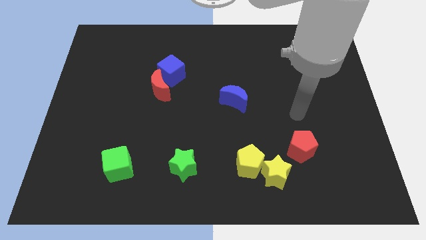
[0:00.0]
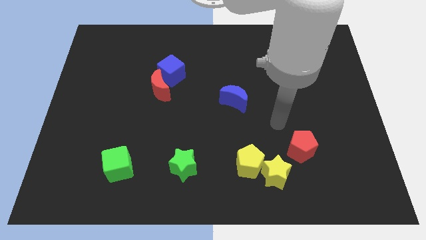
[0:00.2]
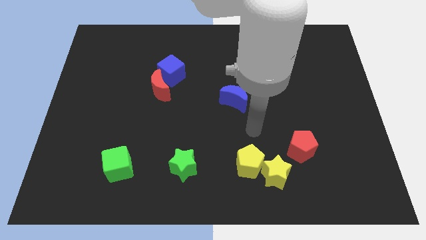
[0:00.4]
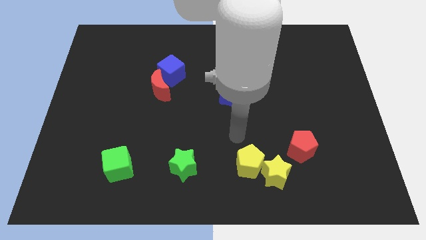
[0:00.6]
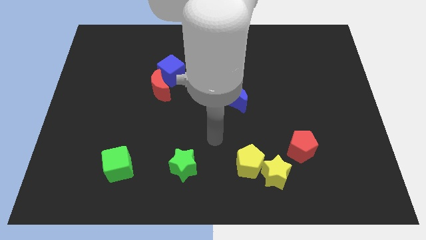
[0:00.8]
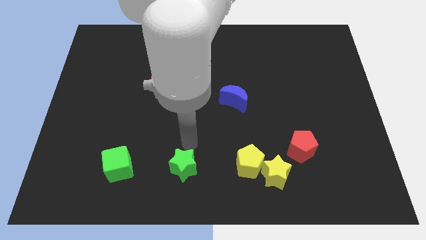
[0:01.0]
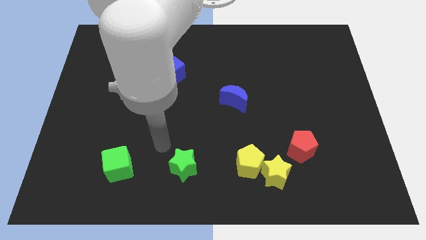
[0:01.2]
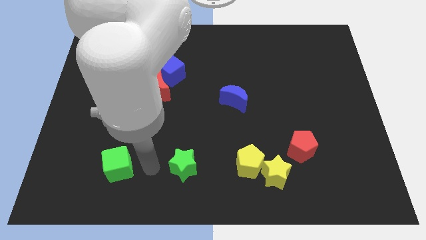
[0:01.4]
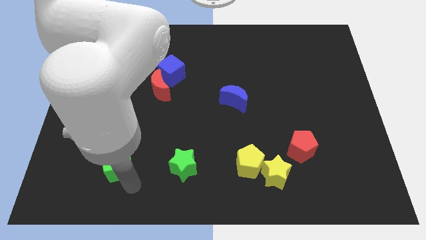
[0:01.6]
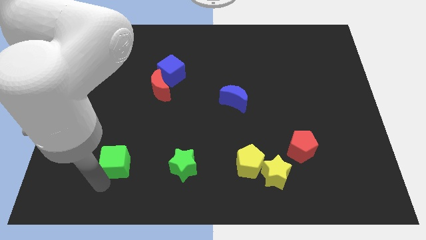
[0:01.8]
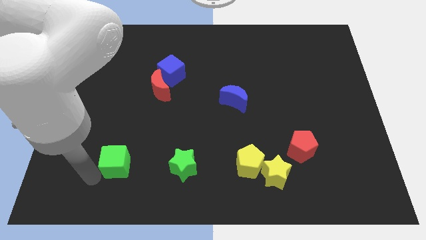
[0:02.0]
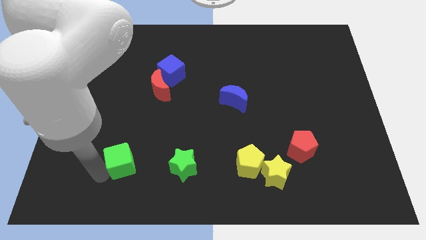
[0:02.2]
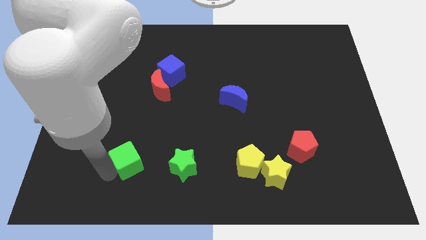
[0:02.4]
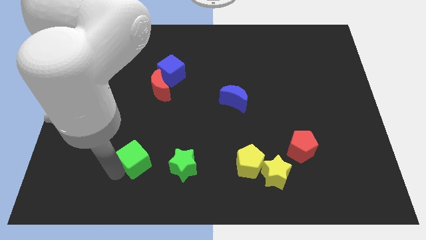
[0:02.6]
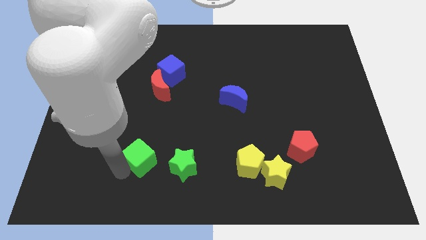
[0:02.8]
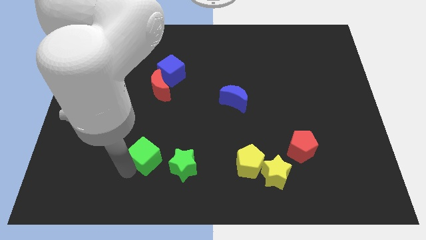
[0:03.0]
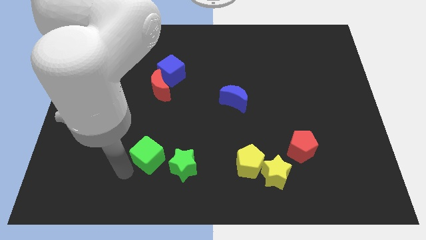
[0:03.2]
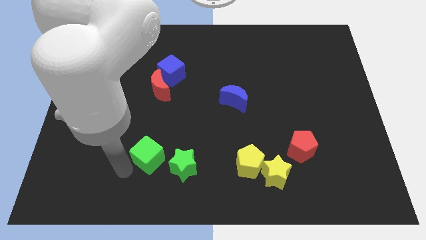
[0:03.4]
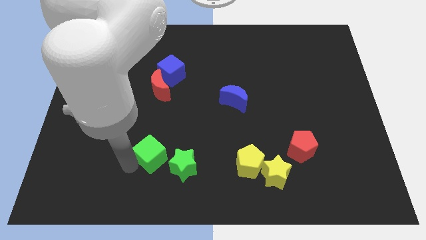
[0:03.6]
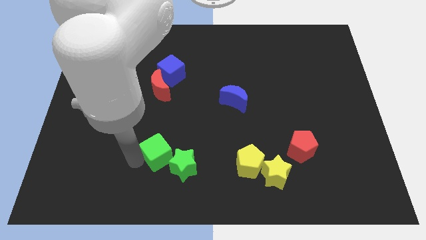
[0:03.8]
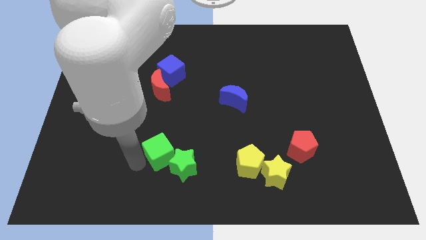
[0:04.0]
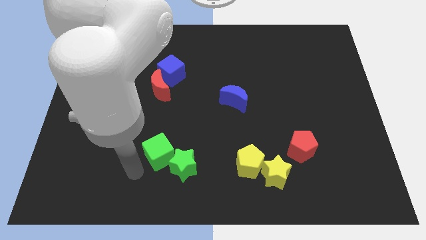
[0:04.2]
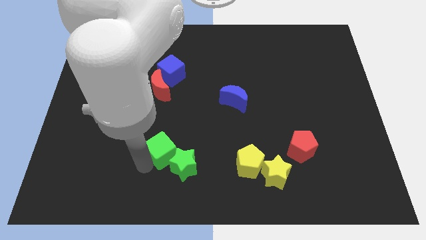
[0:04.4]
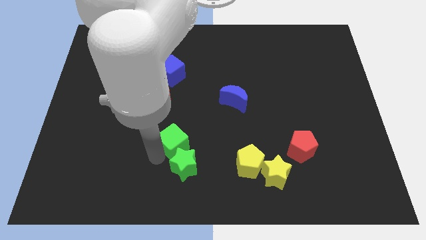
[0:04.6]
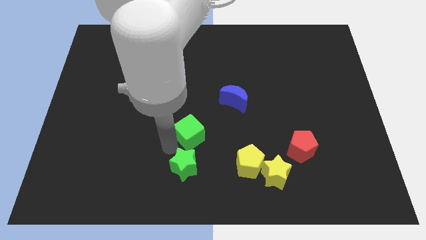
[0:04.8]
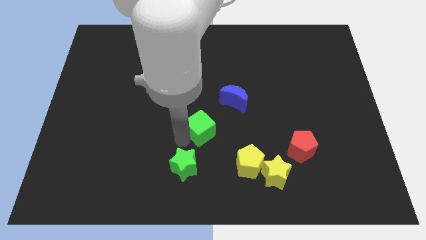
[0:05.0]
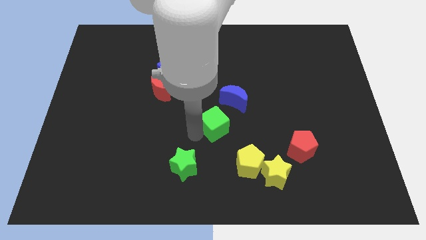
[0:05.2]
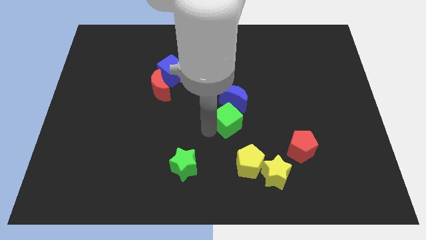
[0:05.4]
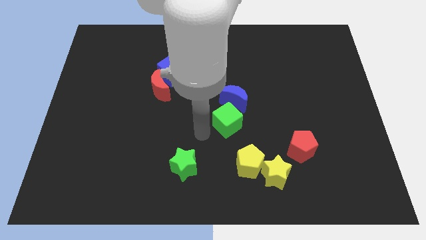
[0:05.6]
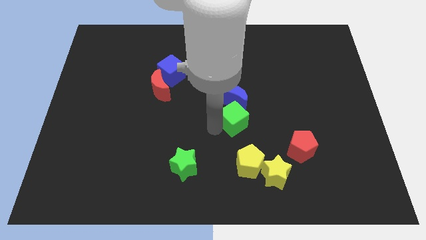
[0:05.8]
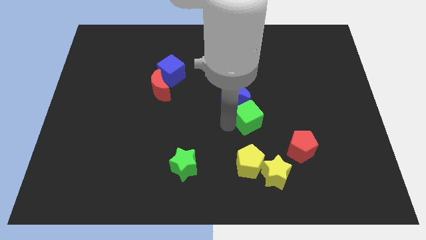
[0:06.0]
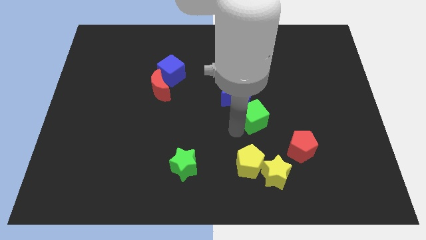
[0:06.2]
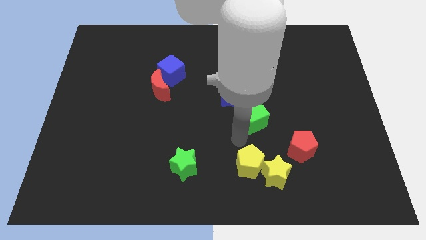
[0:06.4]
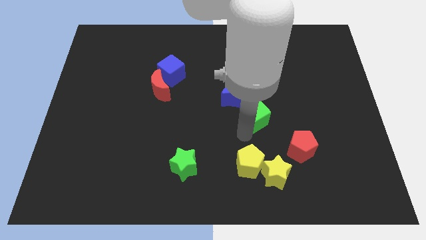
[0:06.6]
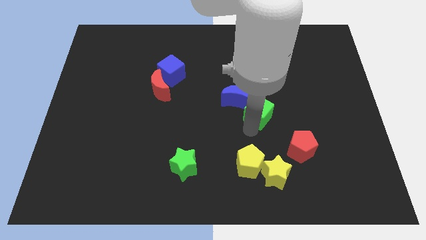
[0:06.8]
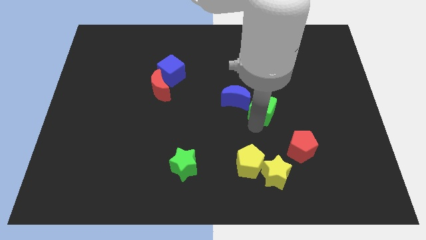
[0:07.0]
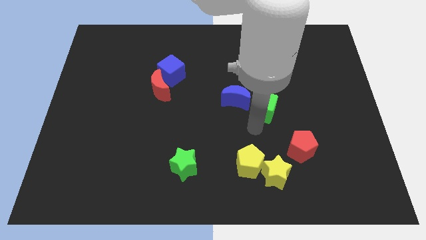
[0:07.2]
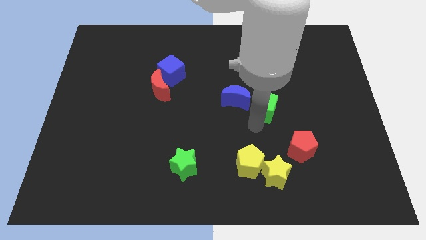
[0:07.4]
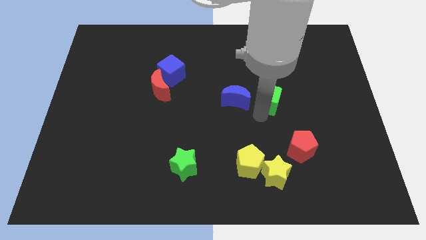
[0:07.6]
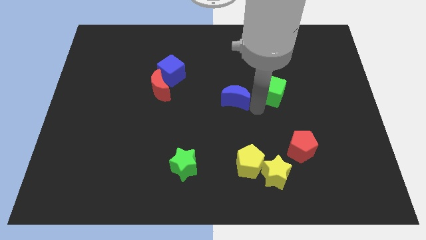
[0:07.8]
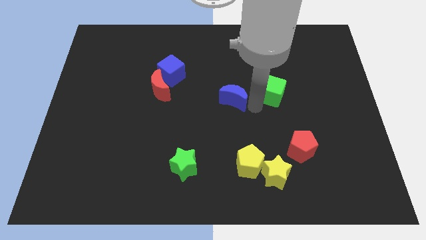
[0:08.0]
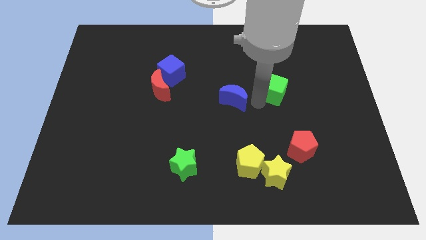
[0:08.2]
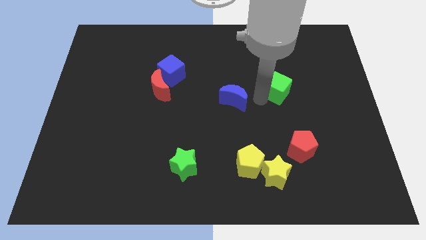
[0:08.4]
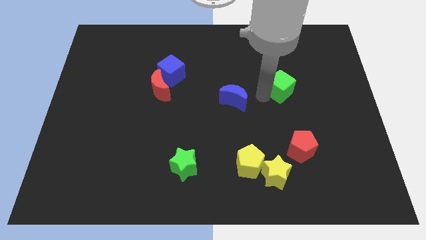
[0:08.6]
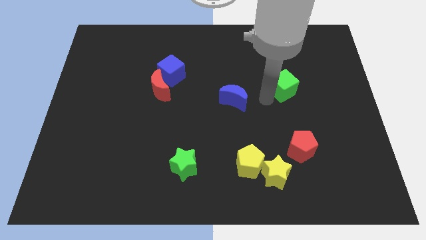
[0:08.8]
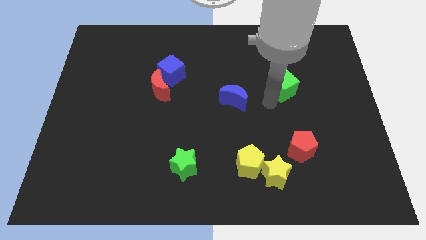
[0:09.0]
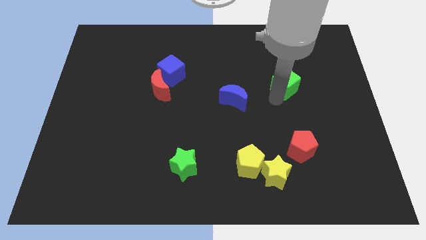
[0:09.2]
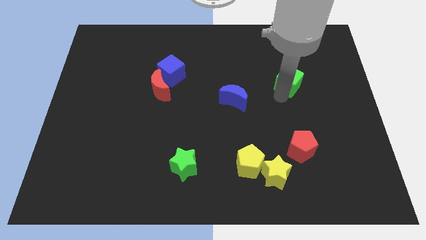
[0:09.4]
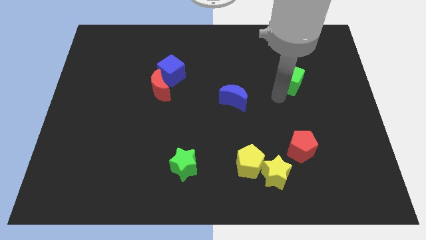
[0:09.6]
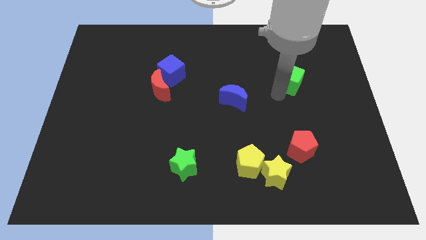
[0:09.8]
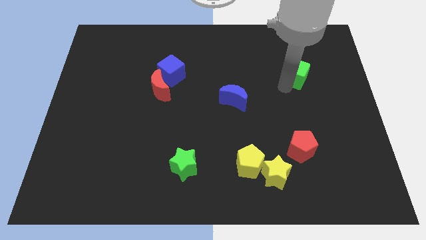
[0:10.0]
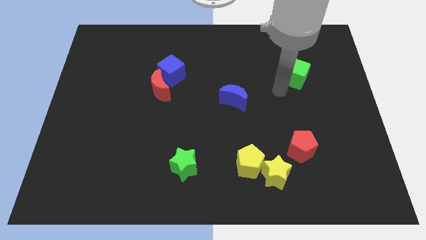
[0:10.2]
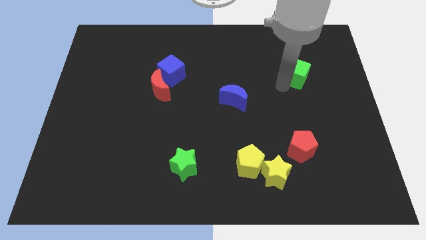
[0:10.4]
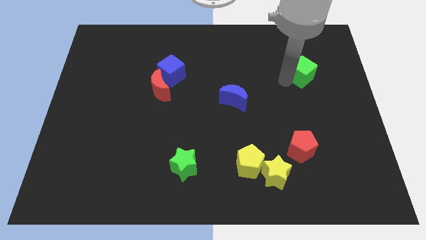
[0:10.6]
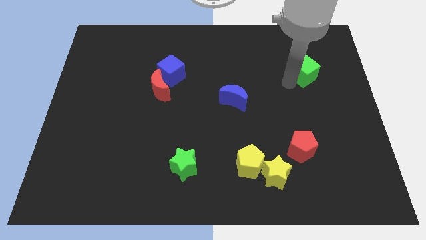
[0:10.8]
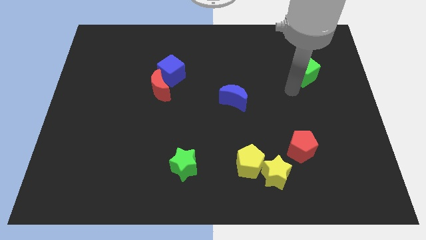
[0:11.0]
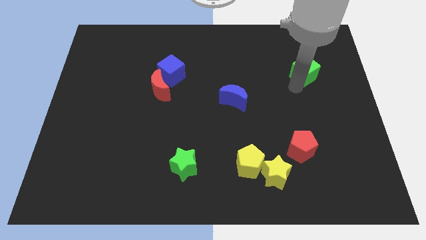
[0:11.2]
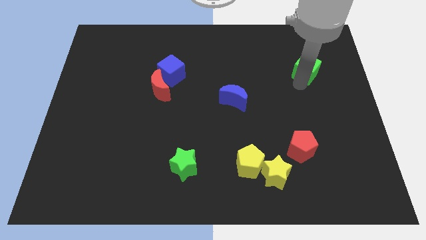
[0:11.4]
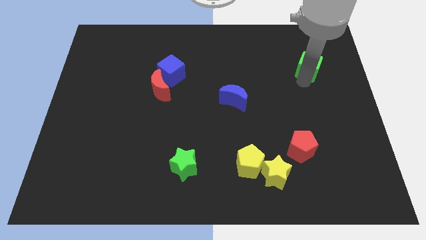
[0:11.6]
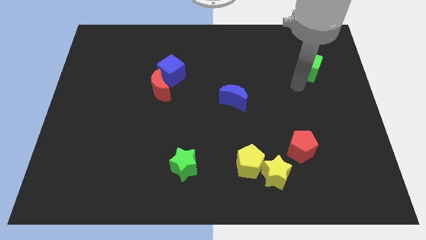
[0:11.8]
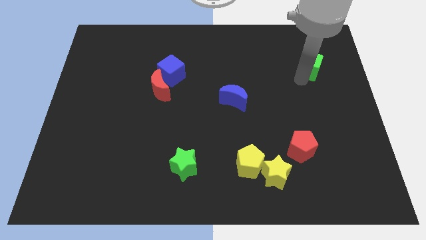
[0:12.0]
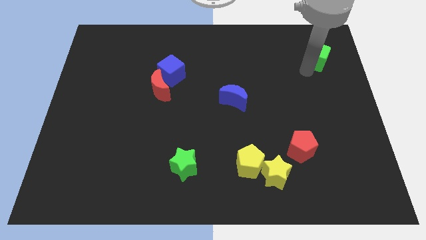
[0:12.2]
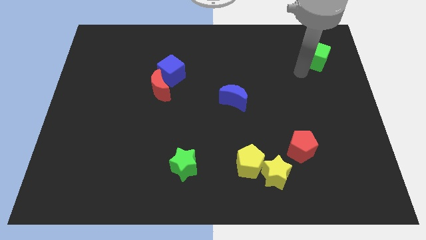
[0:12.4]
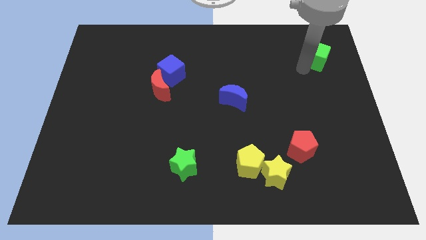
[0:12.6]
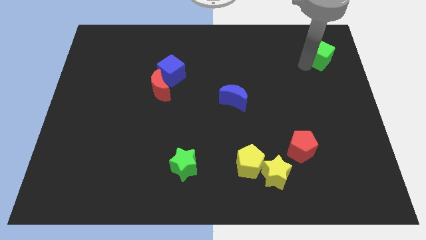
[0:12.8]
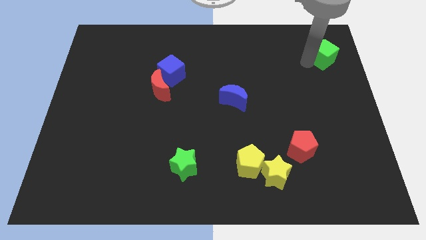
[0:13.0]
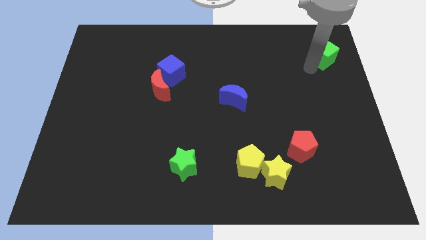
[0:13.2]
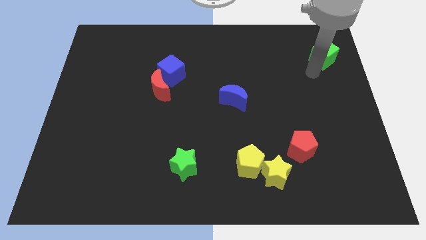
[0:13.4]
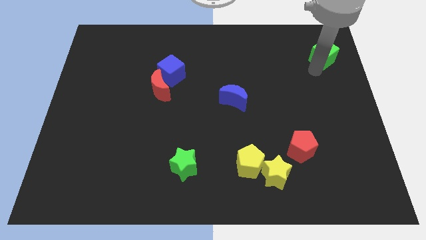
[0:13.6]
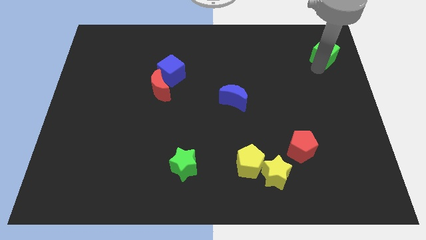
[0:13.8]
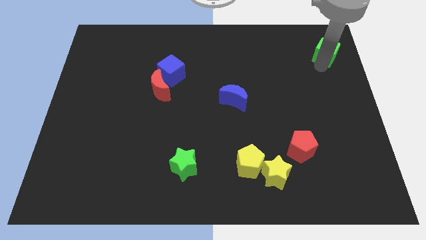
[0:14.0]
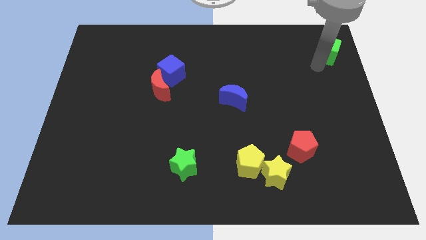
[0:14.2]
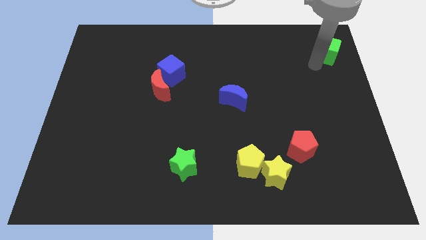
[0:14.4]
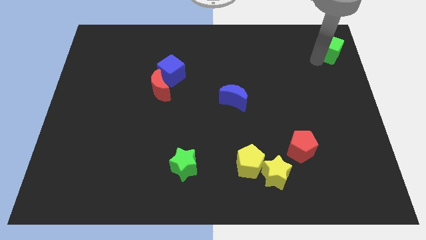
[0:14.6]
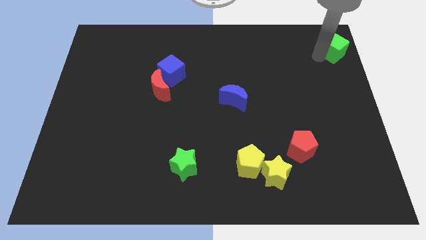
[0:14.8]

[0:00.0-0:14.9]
put the green cube to the top right
